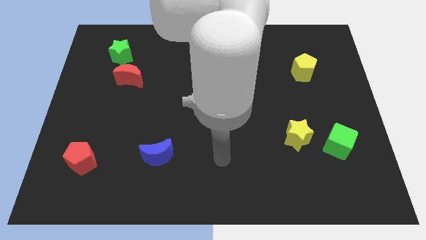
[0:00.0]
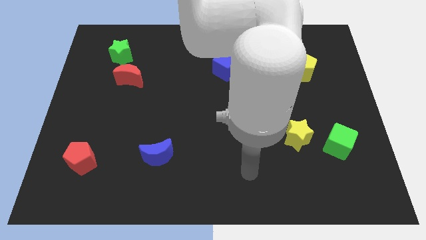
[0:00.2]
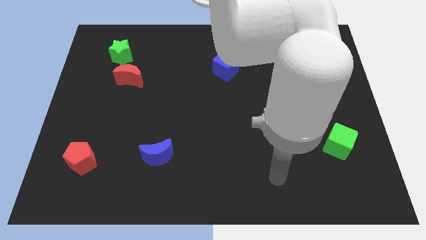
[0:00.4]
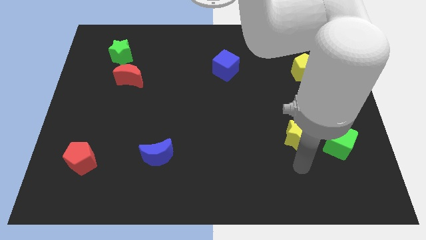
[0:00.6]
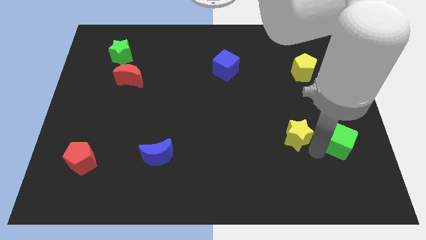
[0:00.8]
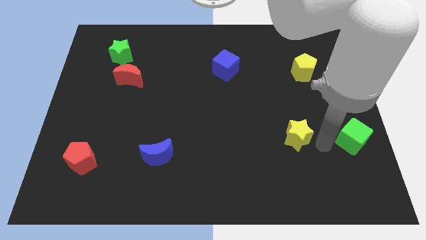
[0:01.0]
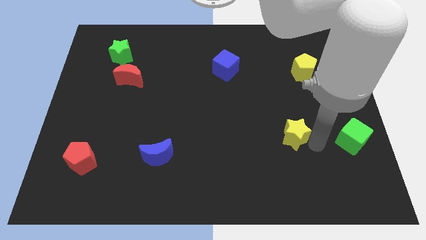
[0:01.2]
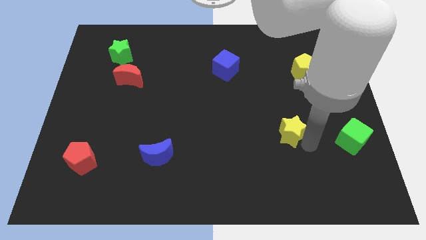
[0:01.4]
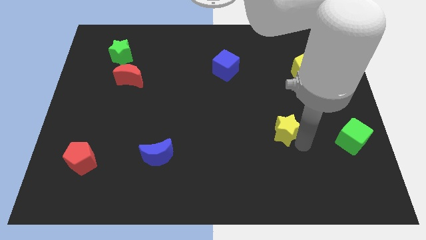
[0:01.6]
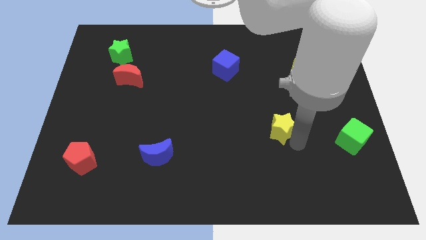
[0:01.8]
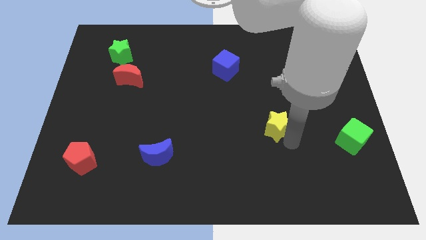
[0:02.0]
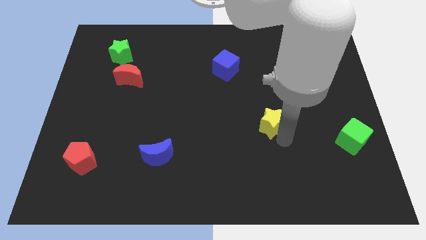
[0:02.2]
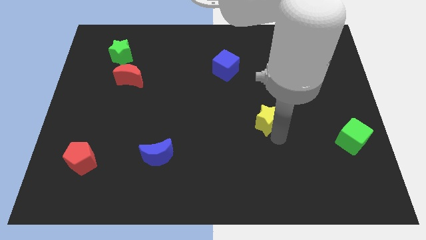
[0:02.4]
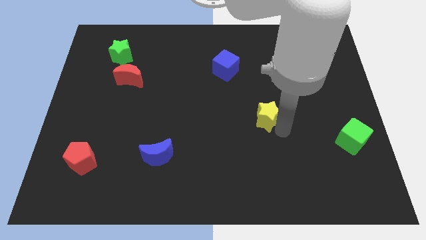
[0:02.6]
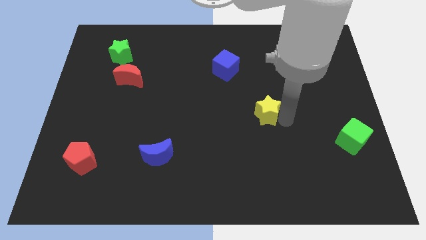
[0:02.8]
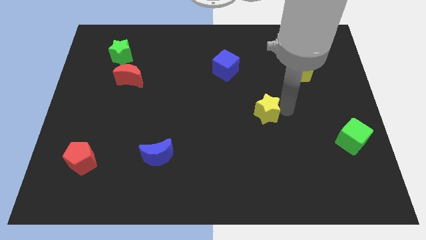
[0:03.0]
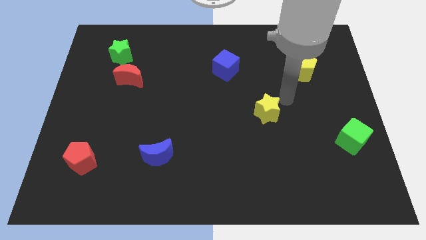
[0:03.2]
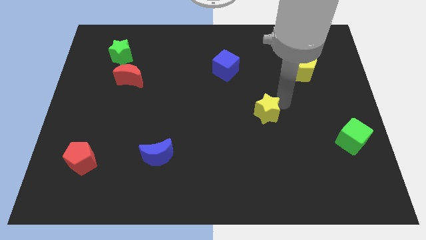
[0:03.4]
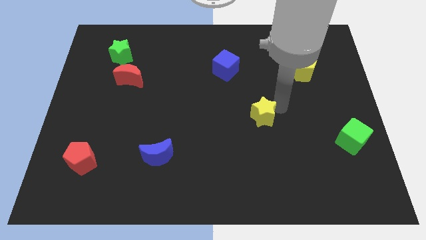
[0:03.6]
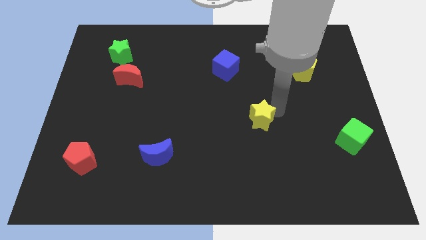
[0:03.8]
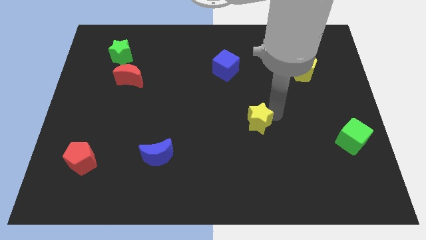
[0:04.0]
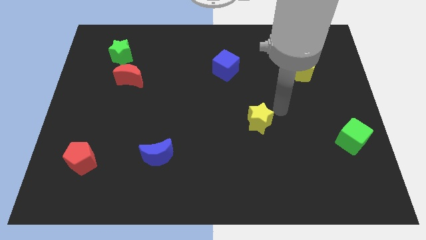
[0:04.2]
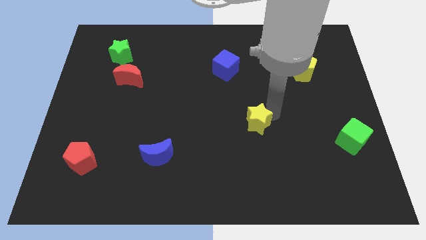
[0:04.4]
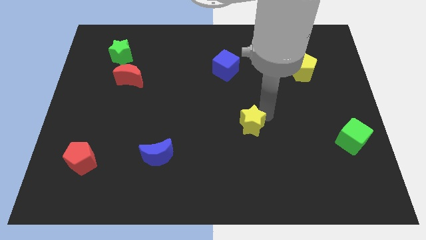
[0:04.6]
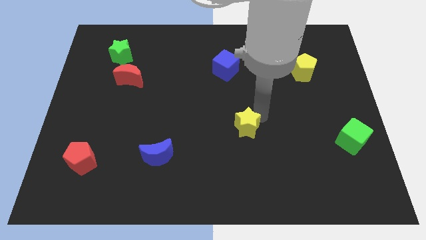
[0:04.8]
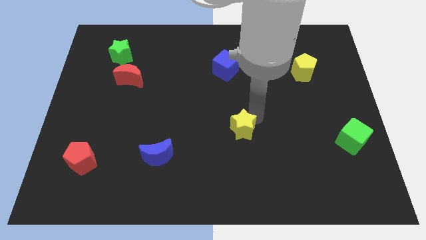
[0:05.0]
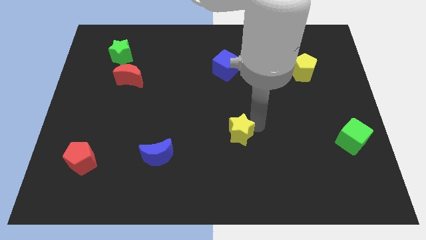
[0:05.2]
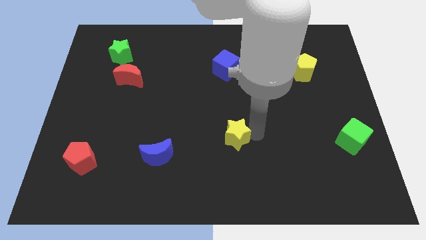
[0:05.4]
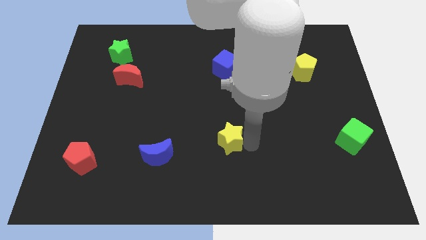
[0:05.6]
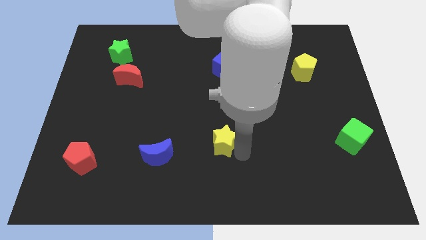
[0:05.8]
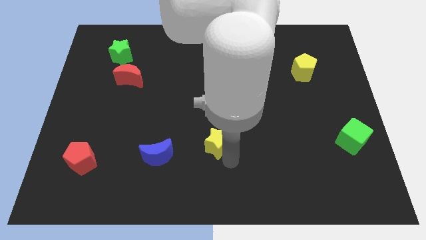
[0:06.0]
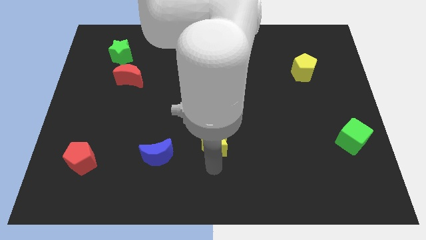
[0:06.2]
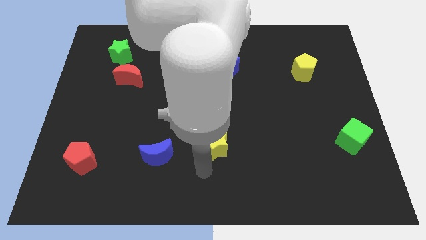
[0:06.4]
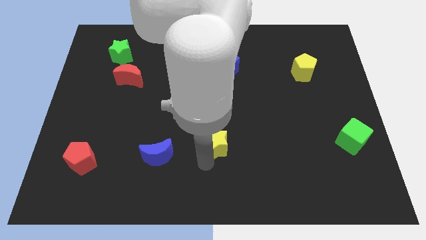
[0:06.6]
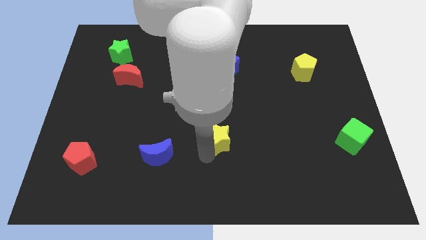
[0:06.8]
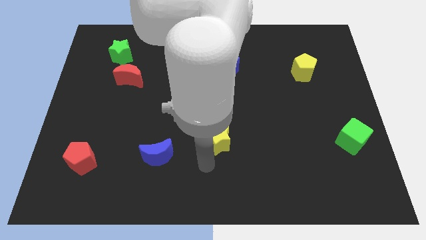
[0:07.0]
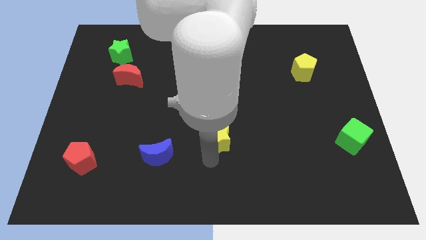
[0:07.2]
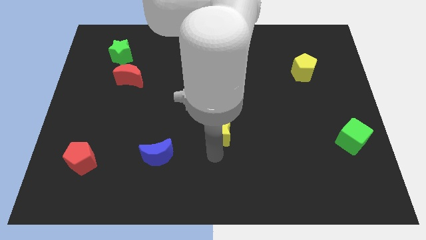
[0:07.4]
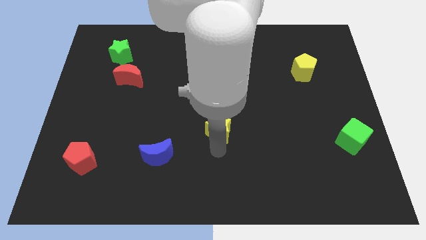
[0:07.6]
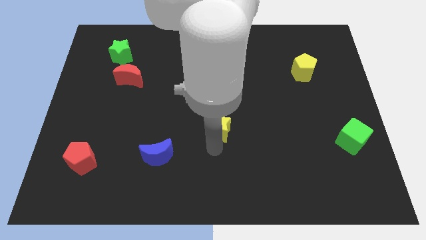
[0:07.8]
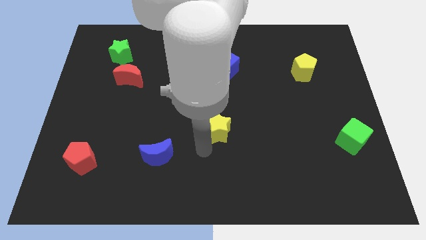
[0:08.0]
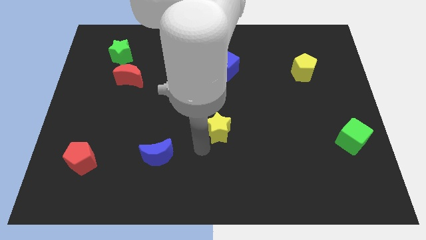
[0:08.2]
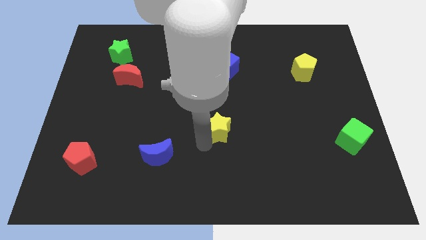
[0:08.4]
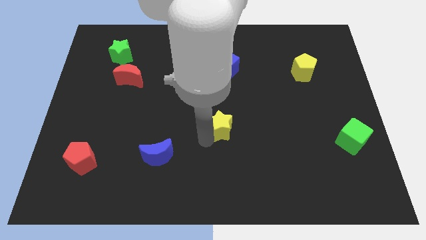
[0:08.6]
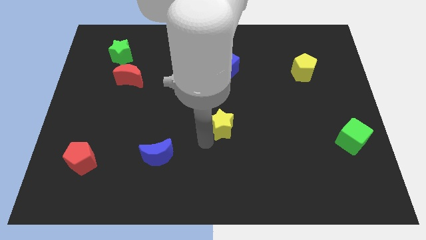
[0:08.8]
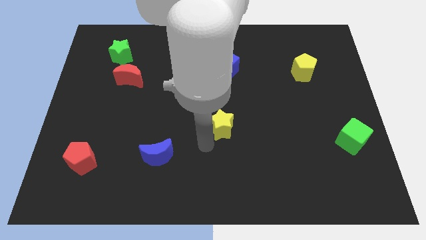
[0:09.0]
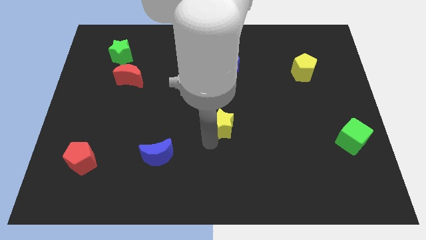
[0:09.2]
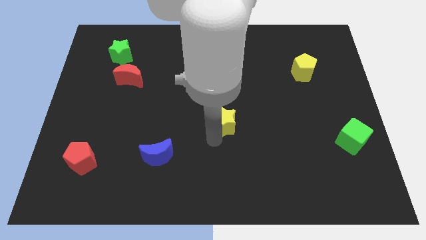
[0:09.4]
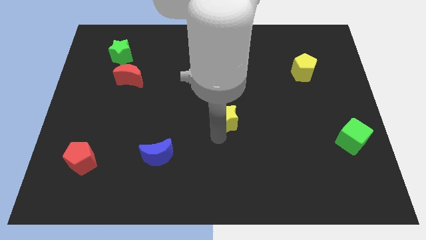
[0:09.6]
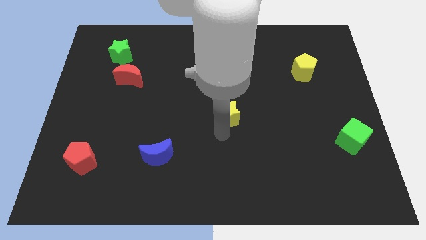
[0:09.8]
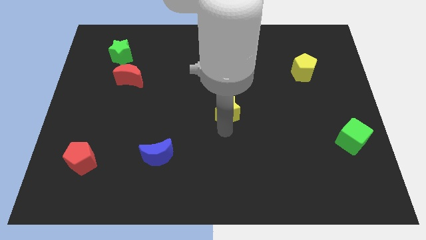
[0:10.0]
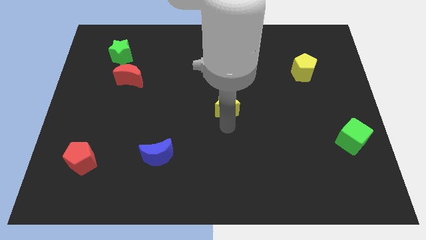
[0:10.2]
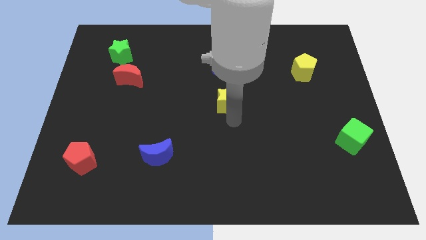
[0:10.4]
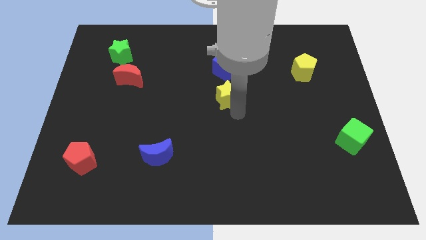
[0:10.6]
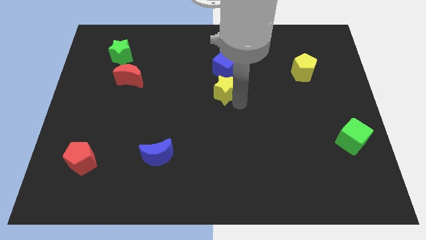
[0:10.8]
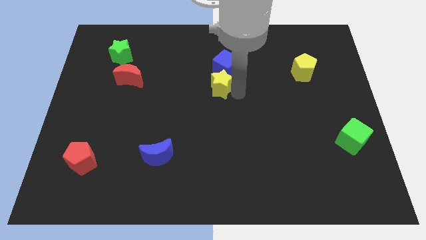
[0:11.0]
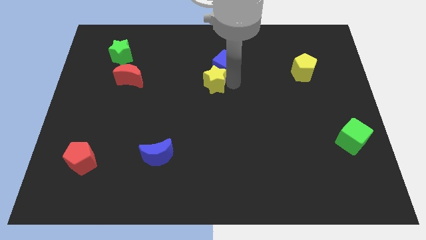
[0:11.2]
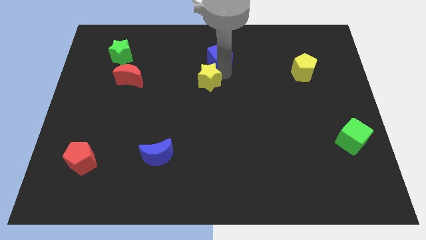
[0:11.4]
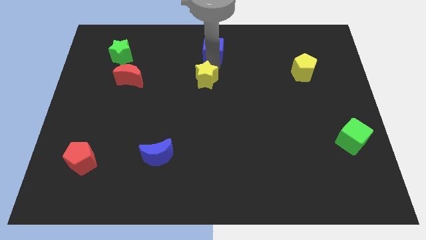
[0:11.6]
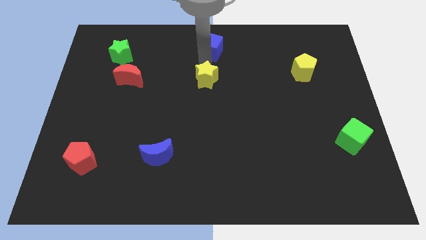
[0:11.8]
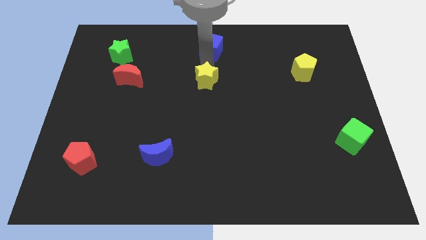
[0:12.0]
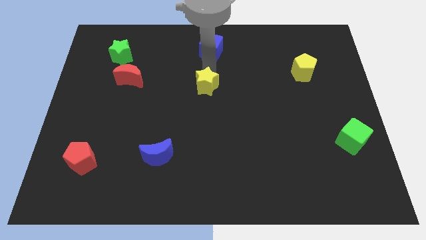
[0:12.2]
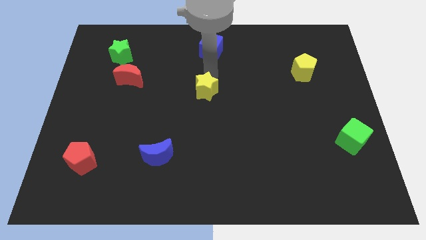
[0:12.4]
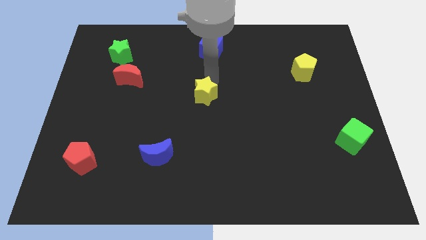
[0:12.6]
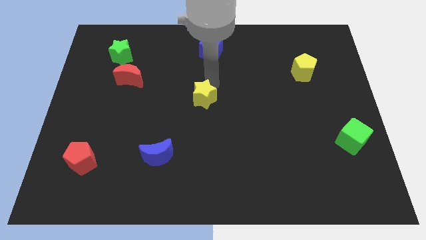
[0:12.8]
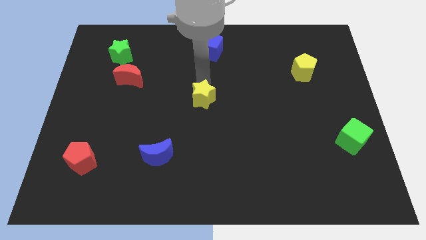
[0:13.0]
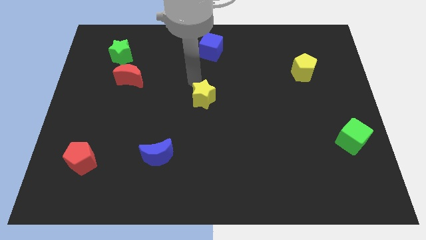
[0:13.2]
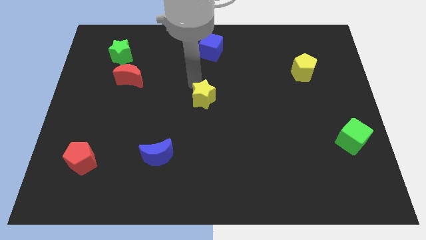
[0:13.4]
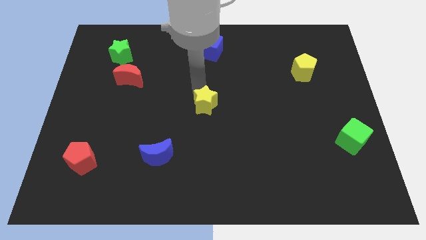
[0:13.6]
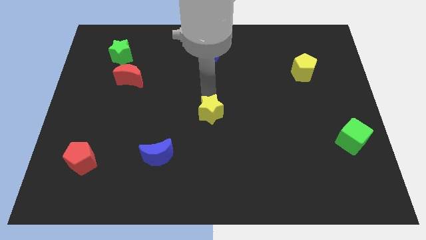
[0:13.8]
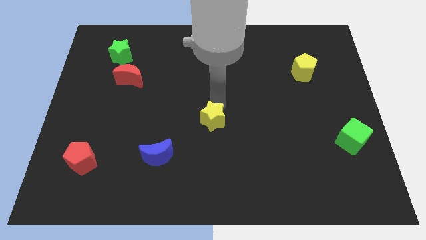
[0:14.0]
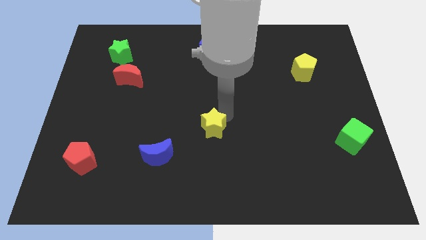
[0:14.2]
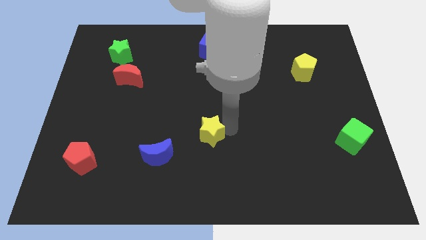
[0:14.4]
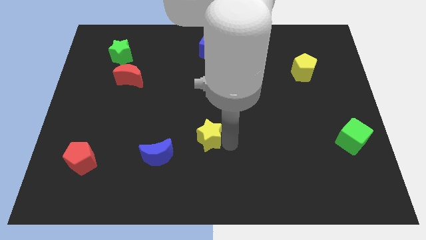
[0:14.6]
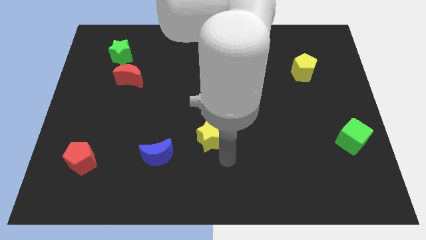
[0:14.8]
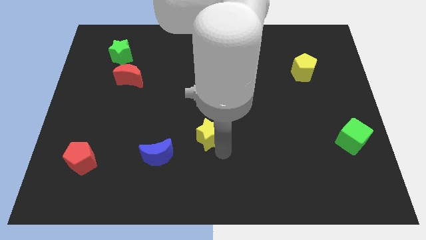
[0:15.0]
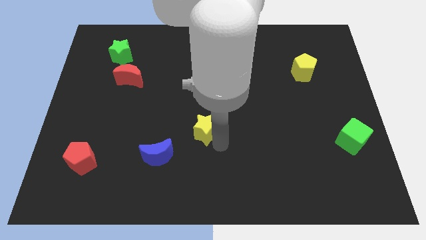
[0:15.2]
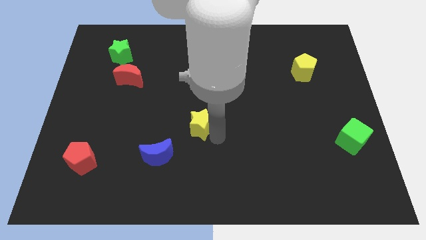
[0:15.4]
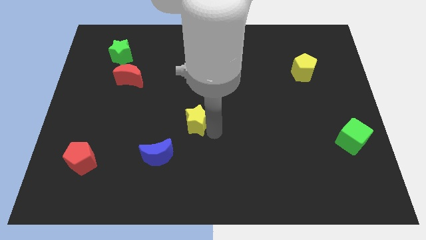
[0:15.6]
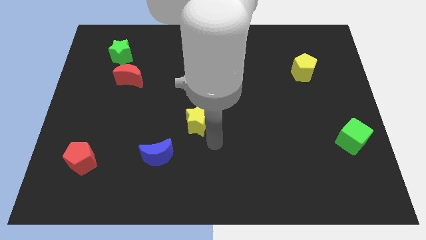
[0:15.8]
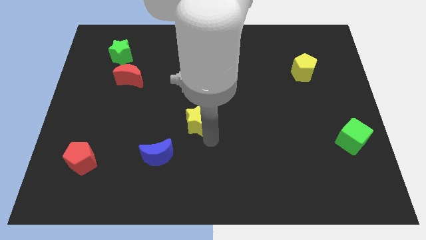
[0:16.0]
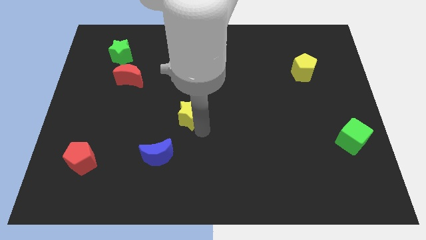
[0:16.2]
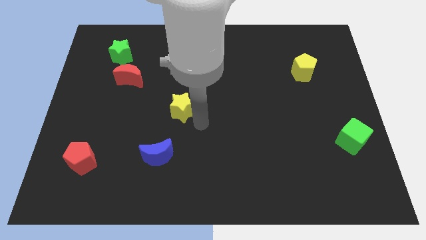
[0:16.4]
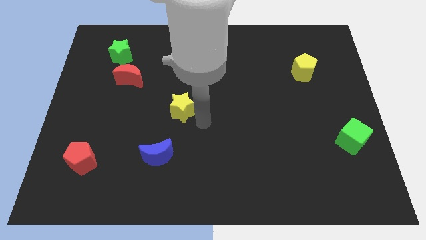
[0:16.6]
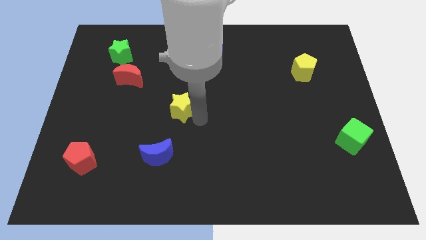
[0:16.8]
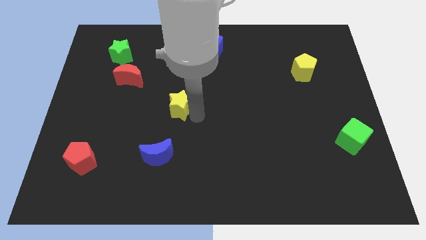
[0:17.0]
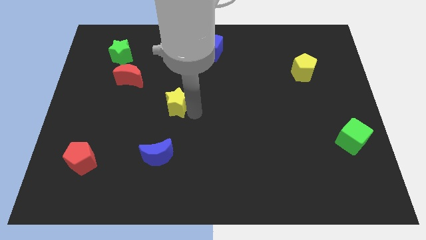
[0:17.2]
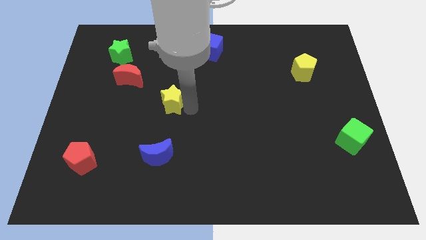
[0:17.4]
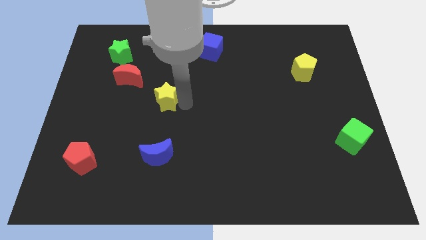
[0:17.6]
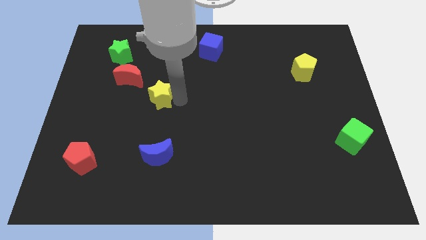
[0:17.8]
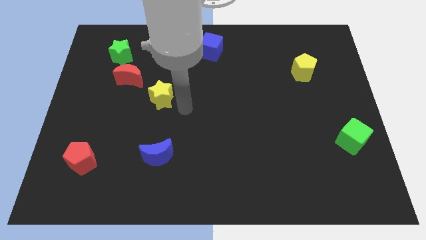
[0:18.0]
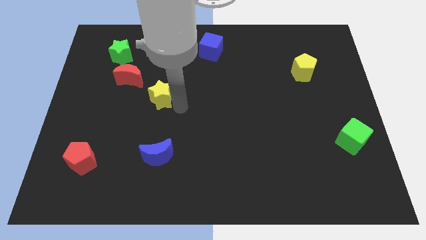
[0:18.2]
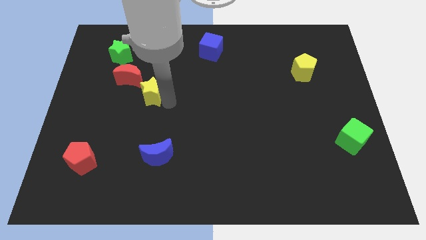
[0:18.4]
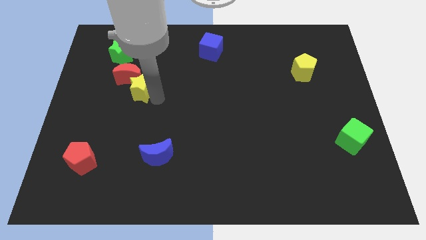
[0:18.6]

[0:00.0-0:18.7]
push the yellow star close to the red moon
